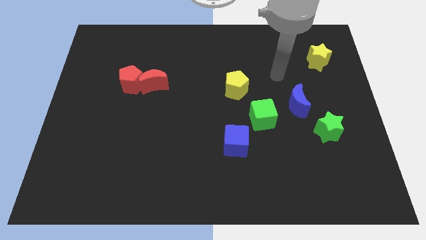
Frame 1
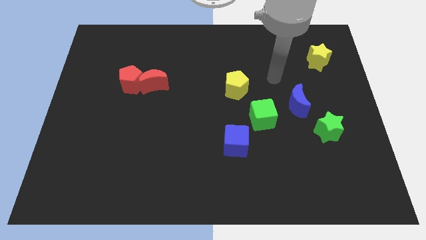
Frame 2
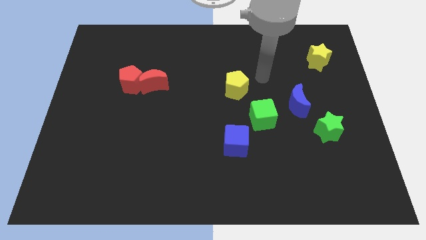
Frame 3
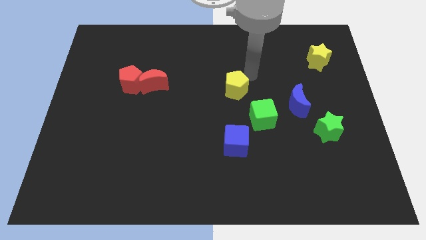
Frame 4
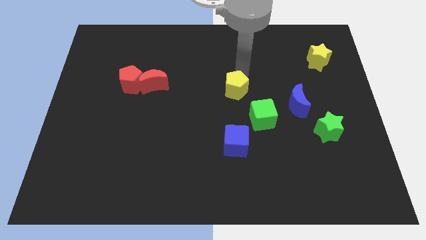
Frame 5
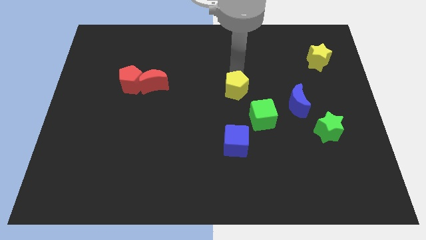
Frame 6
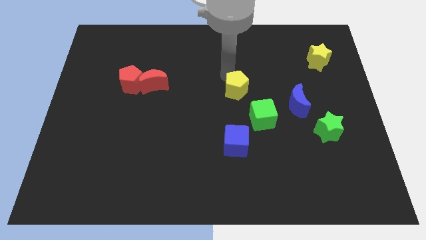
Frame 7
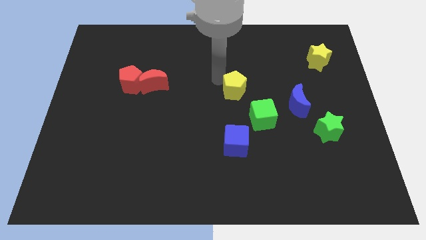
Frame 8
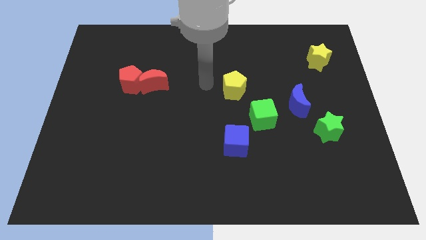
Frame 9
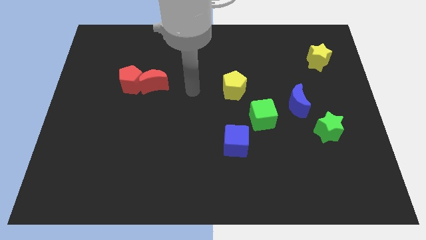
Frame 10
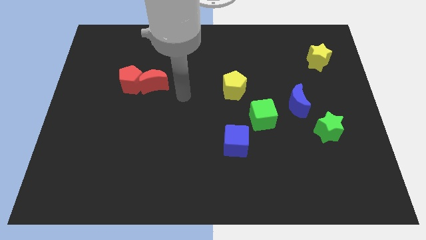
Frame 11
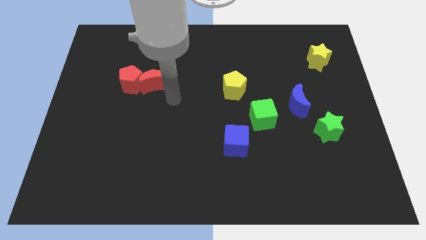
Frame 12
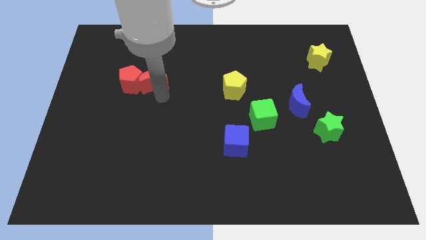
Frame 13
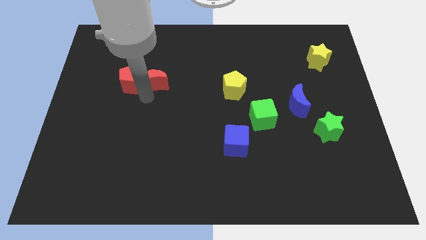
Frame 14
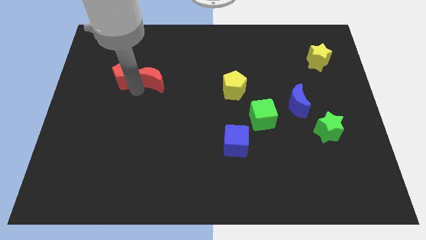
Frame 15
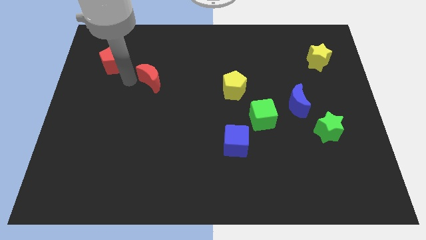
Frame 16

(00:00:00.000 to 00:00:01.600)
separate the red moon from the red pentagon

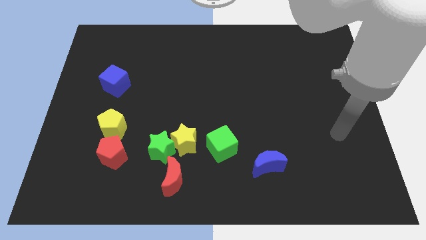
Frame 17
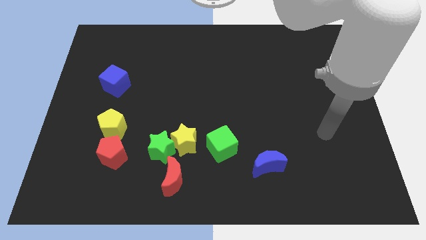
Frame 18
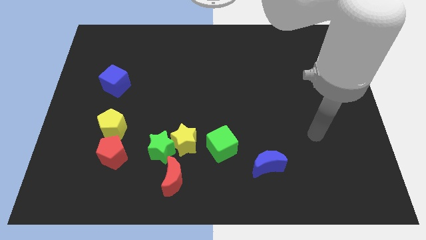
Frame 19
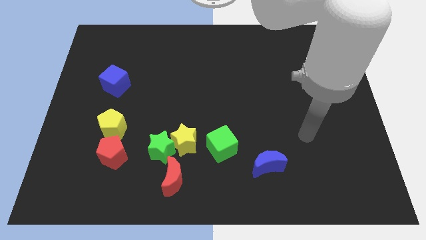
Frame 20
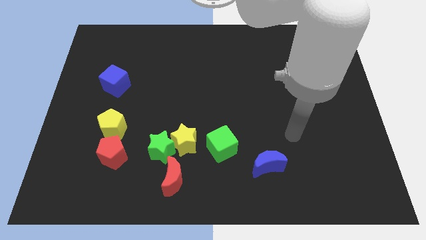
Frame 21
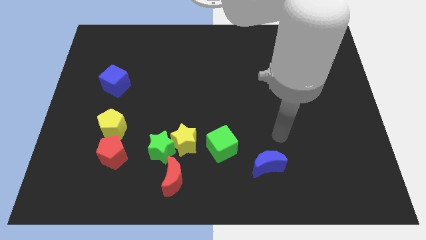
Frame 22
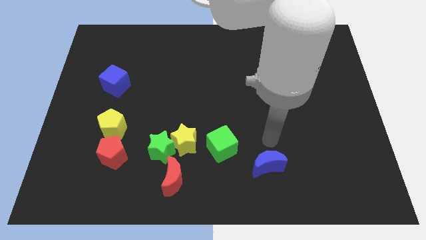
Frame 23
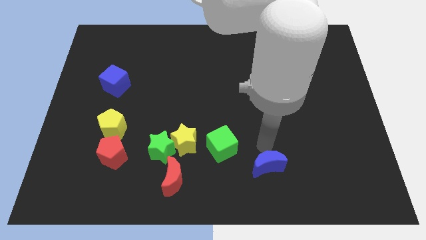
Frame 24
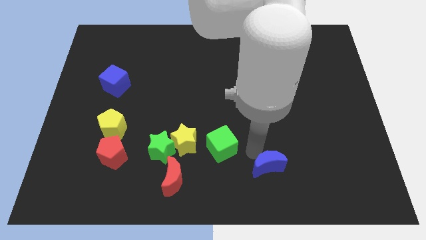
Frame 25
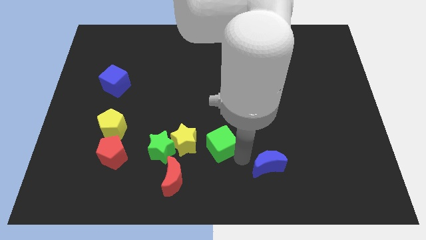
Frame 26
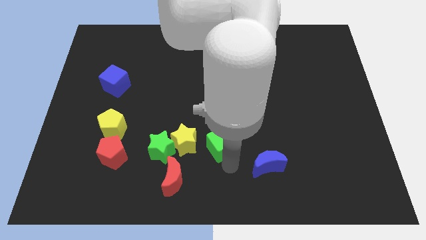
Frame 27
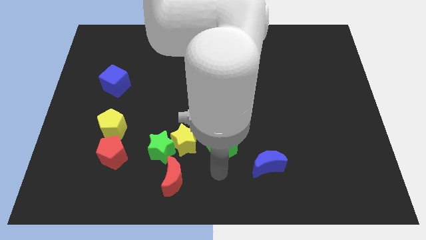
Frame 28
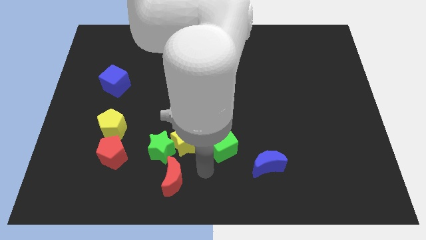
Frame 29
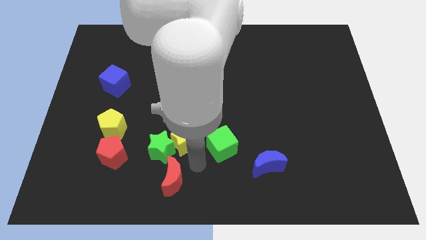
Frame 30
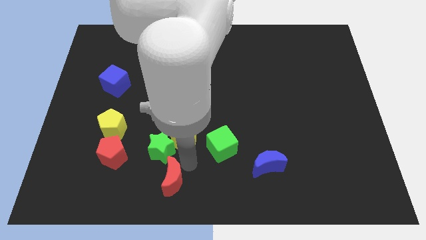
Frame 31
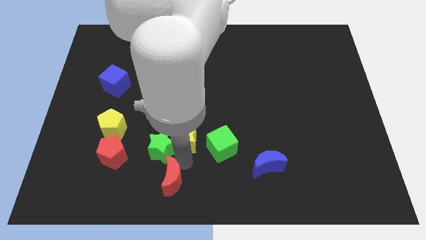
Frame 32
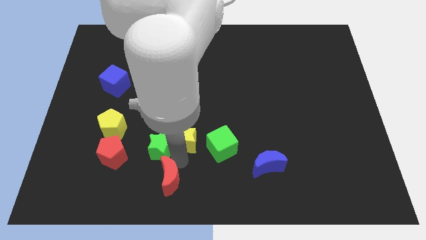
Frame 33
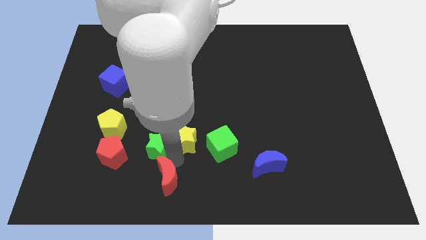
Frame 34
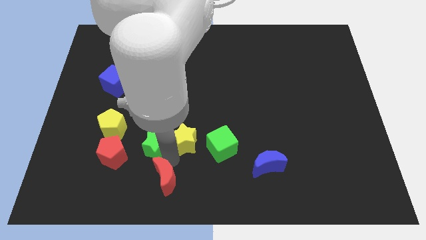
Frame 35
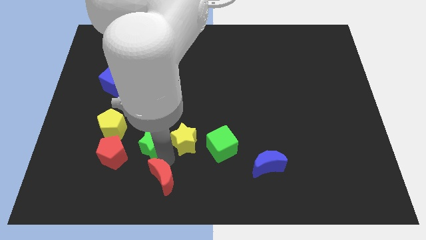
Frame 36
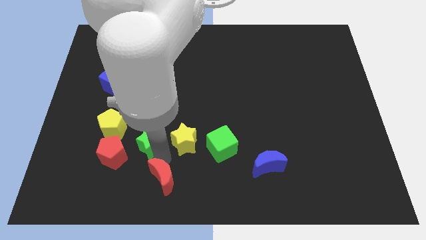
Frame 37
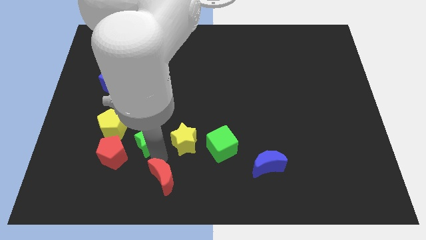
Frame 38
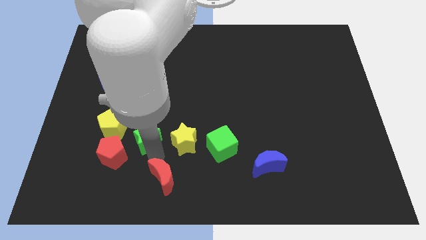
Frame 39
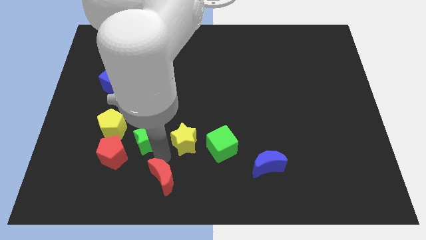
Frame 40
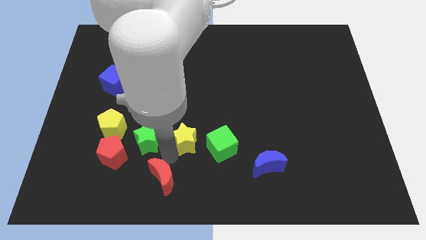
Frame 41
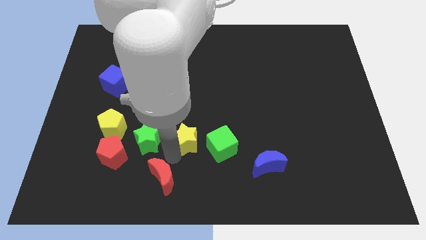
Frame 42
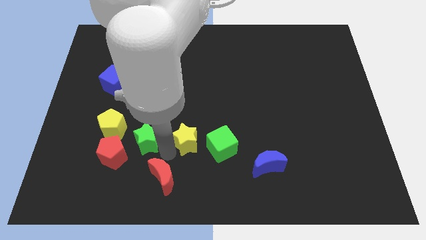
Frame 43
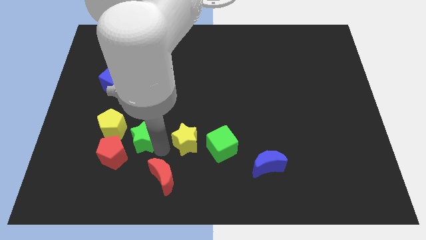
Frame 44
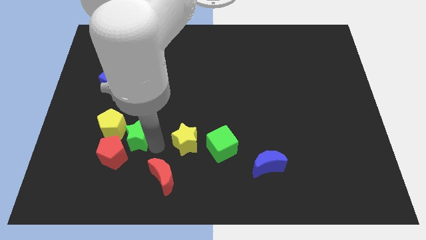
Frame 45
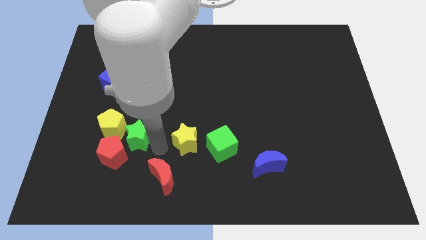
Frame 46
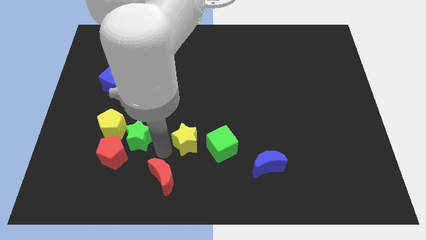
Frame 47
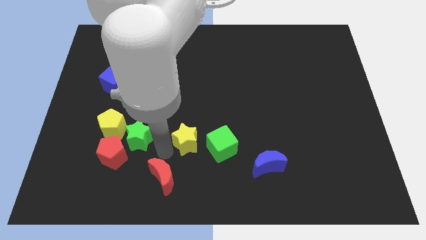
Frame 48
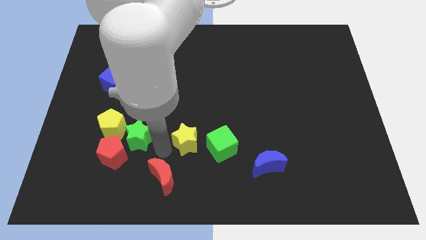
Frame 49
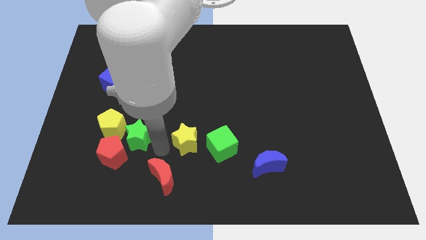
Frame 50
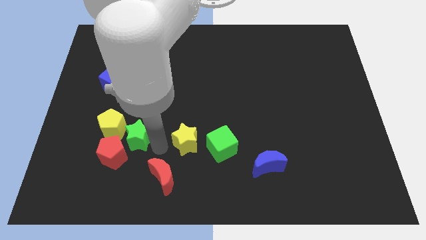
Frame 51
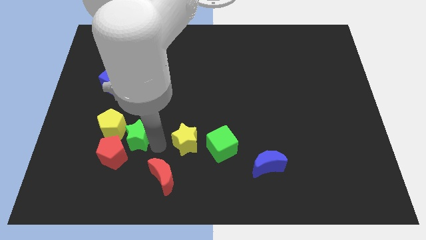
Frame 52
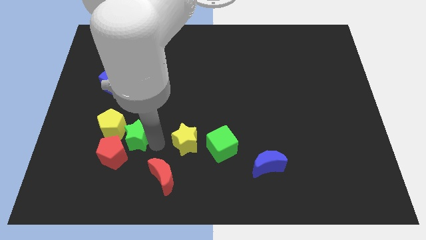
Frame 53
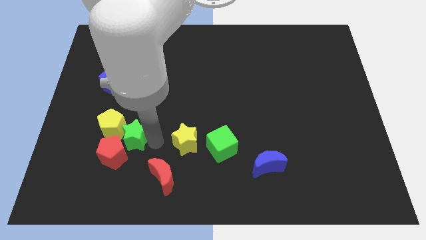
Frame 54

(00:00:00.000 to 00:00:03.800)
separate the green star from the yellow star and red moon

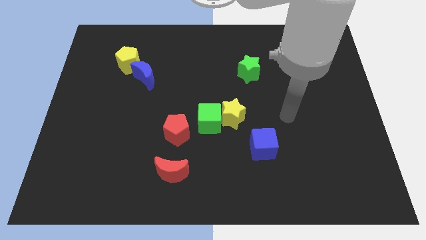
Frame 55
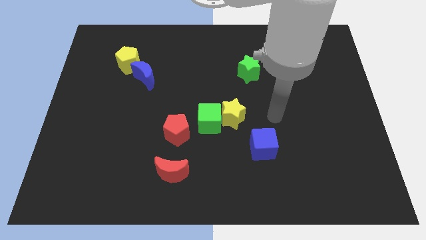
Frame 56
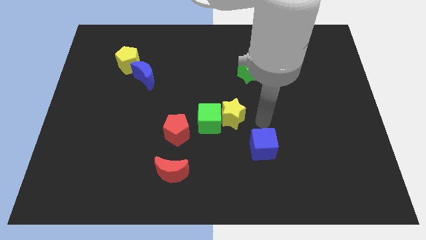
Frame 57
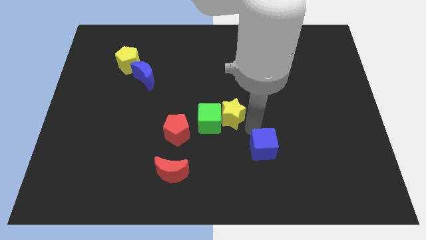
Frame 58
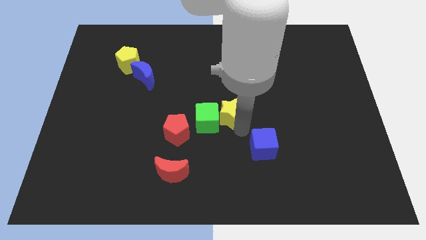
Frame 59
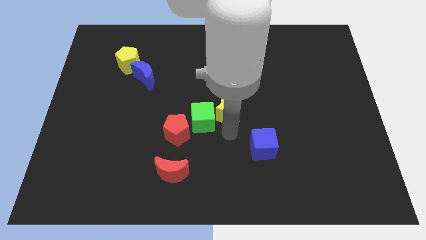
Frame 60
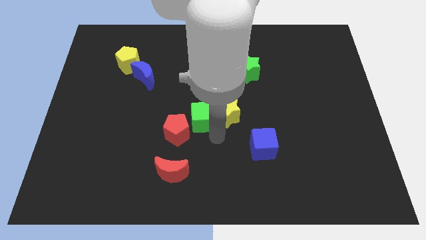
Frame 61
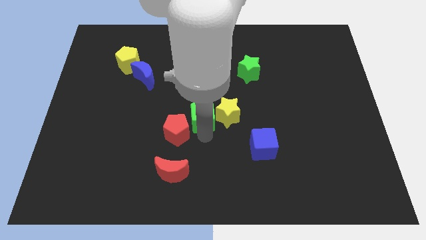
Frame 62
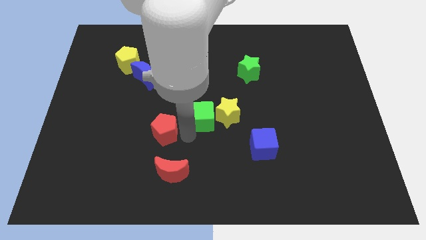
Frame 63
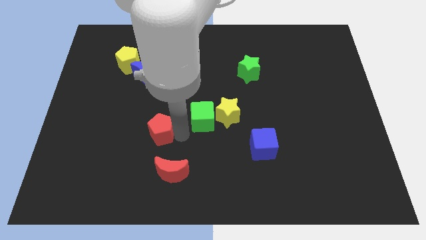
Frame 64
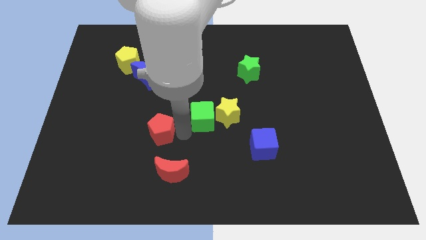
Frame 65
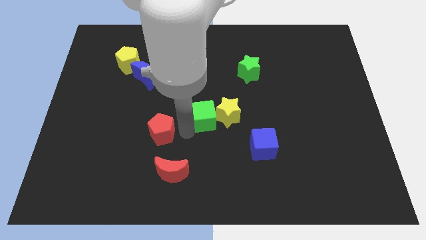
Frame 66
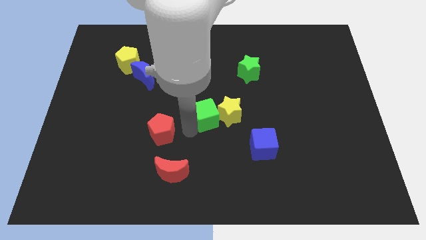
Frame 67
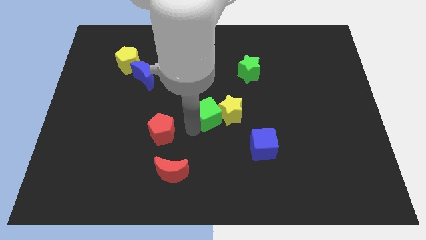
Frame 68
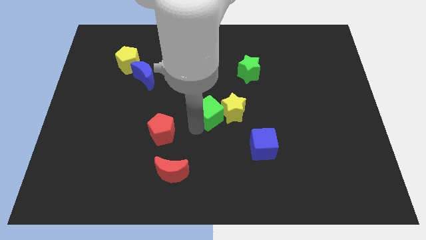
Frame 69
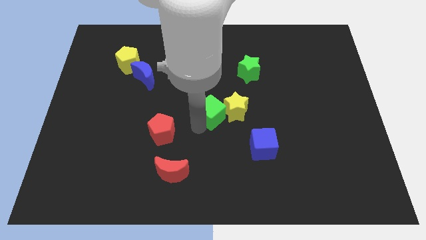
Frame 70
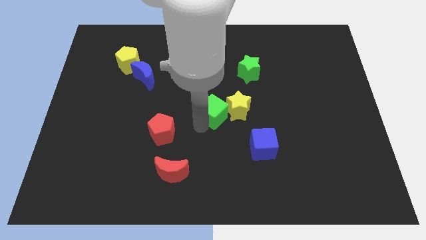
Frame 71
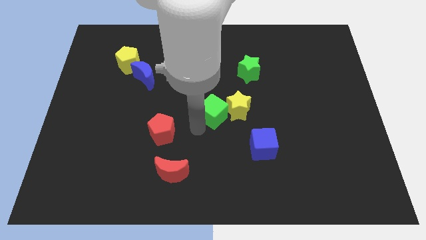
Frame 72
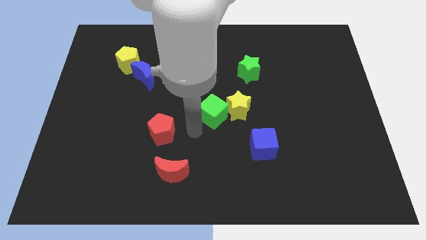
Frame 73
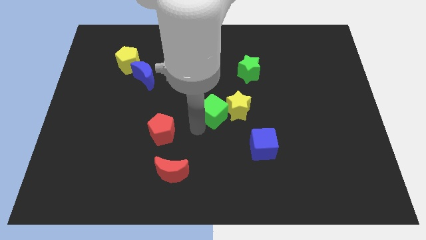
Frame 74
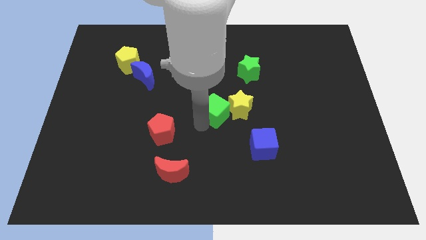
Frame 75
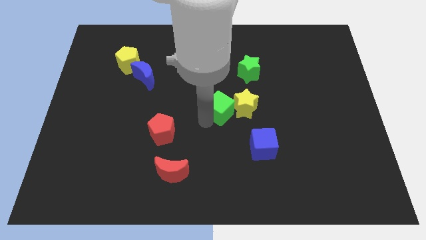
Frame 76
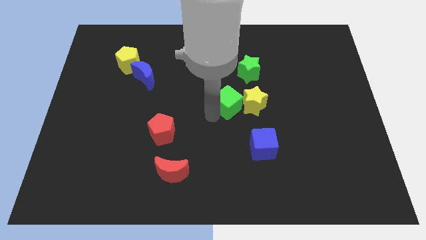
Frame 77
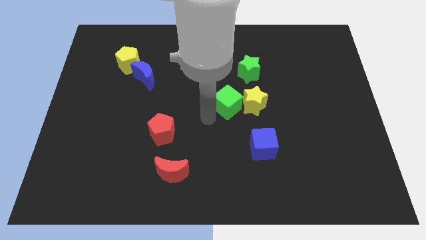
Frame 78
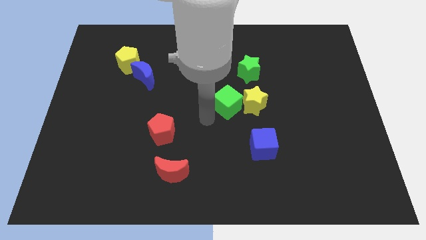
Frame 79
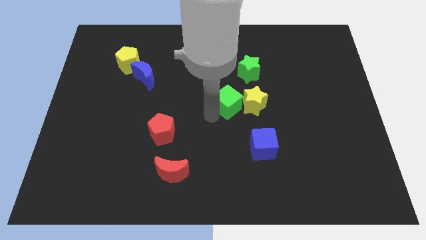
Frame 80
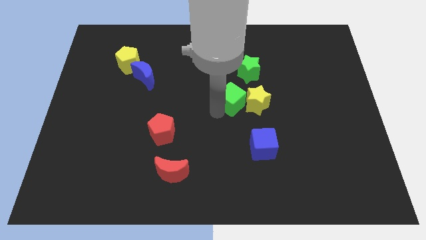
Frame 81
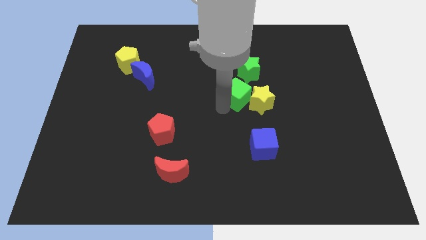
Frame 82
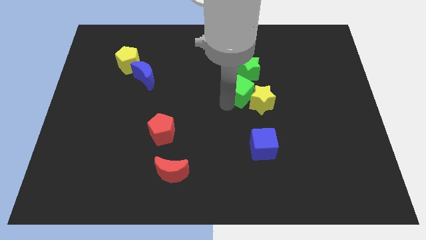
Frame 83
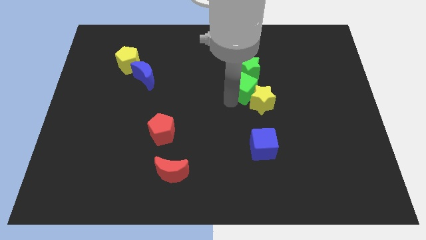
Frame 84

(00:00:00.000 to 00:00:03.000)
separate the green cube from the yellow star and red pentagon

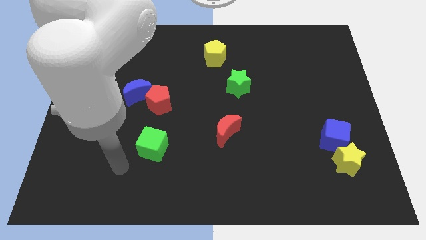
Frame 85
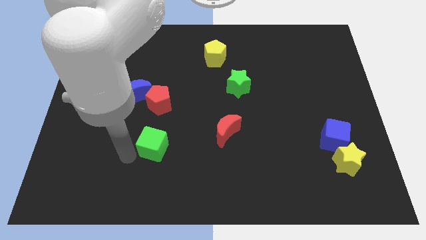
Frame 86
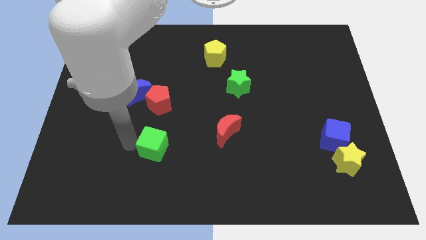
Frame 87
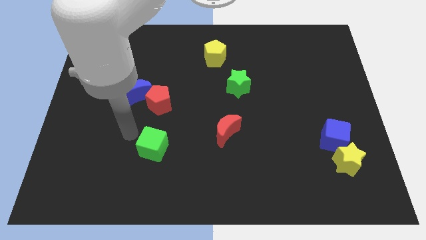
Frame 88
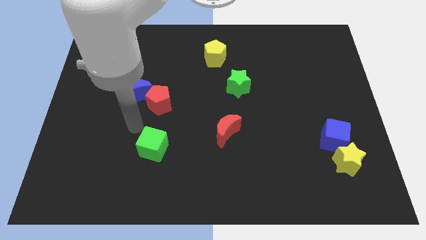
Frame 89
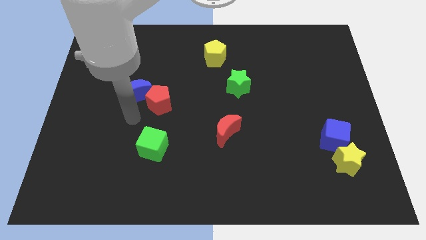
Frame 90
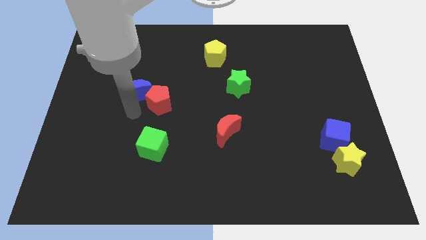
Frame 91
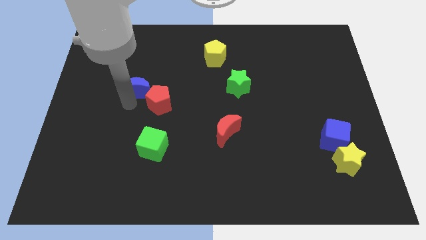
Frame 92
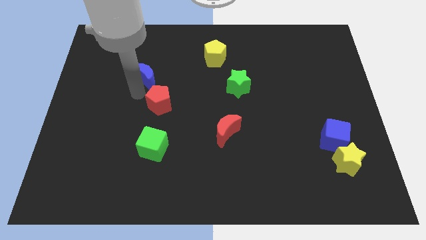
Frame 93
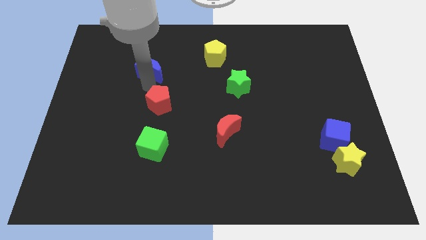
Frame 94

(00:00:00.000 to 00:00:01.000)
move the red pentagon away from the blue moon
